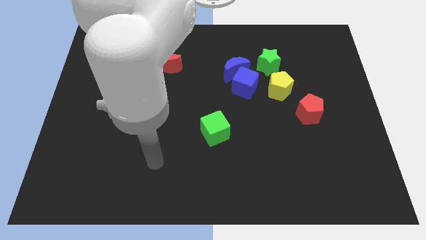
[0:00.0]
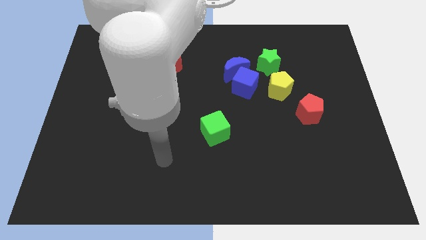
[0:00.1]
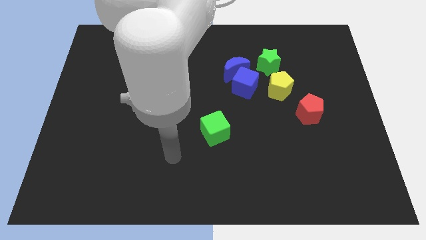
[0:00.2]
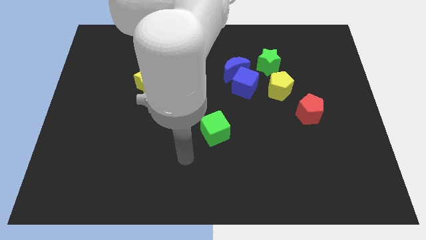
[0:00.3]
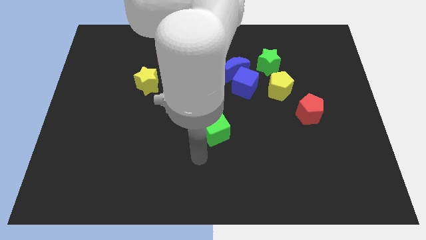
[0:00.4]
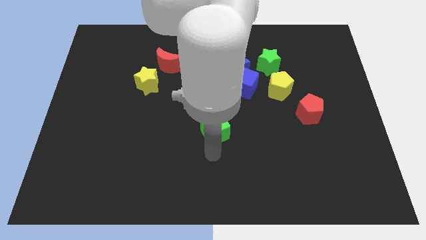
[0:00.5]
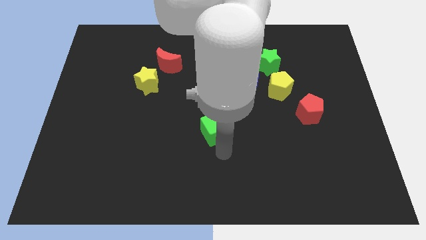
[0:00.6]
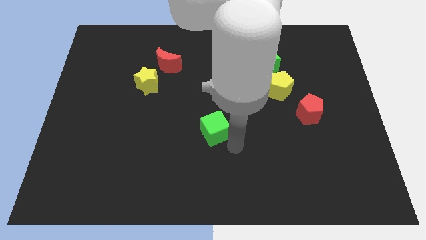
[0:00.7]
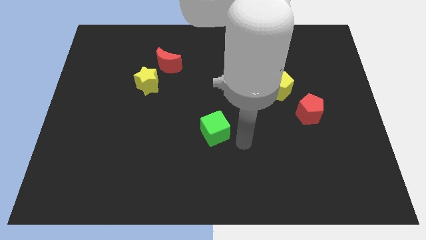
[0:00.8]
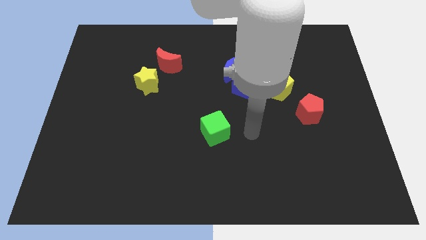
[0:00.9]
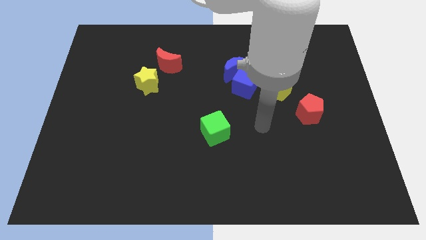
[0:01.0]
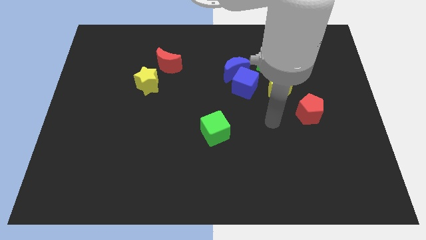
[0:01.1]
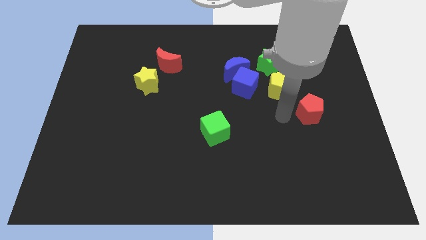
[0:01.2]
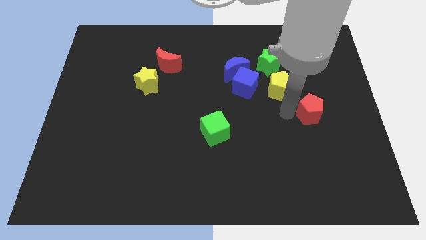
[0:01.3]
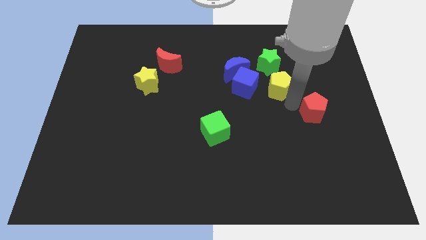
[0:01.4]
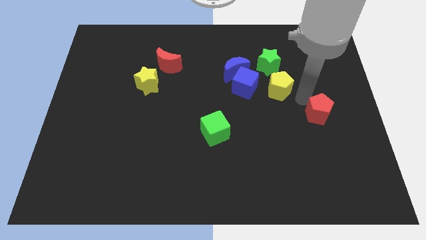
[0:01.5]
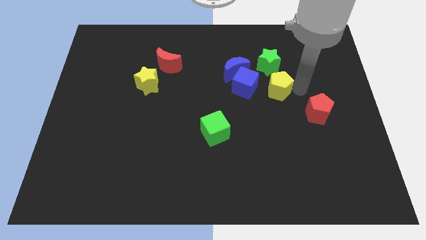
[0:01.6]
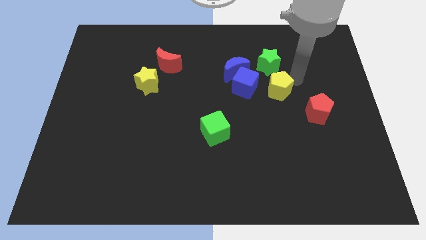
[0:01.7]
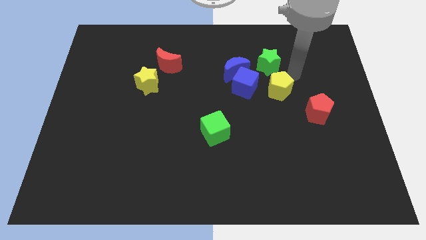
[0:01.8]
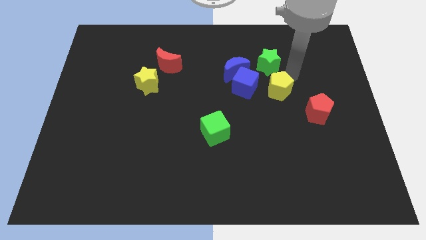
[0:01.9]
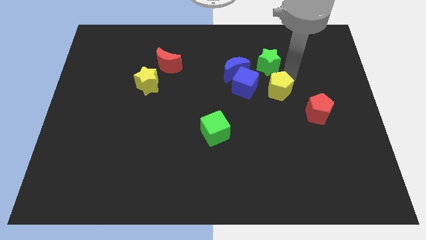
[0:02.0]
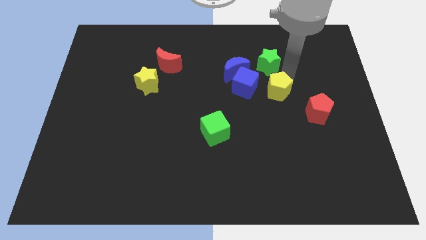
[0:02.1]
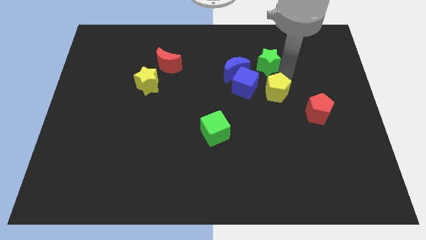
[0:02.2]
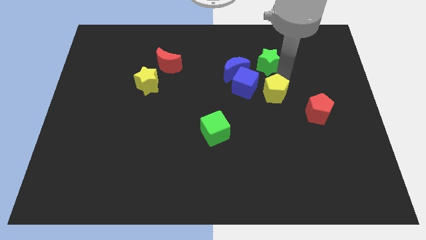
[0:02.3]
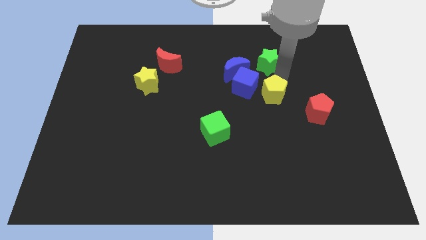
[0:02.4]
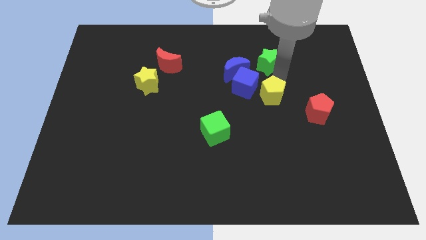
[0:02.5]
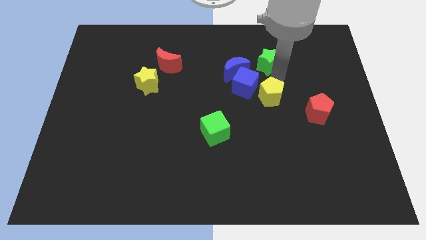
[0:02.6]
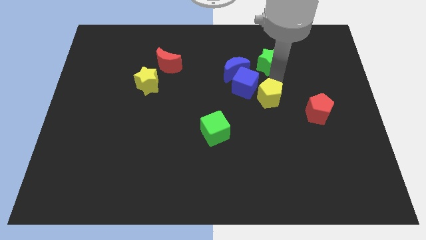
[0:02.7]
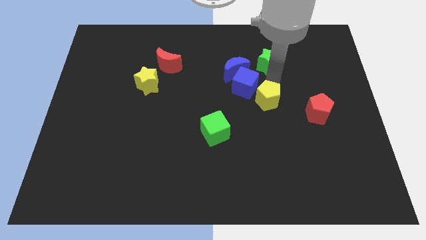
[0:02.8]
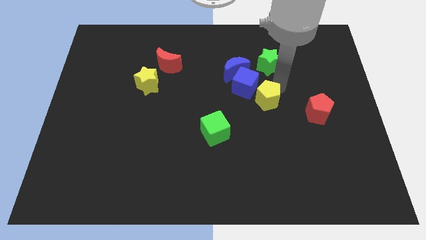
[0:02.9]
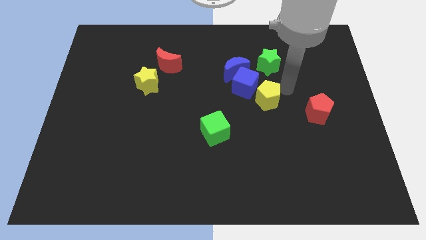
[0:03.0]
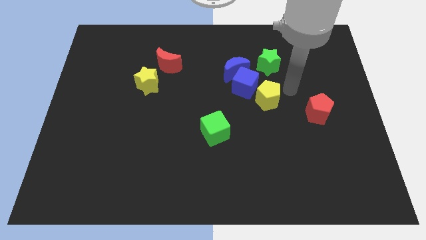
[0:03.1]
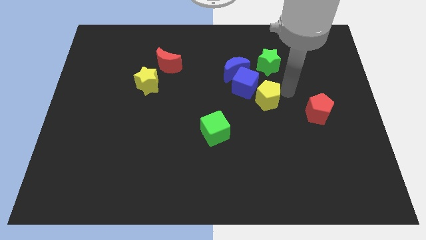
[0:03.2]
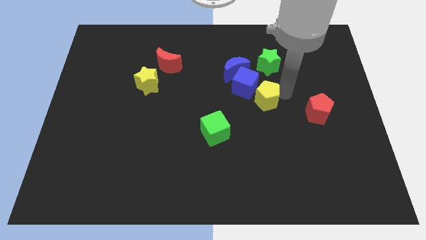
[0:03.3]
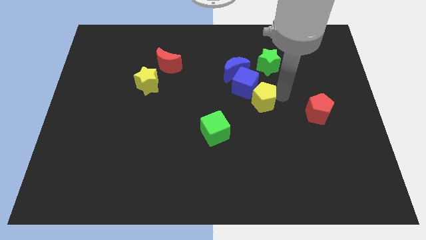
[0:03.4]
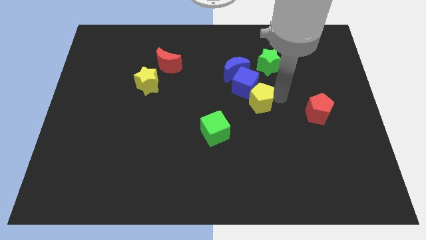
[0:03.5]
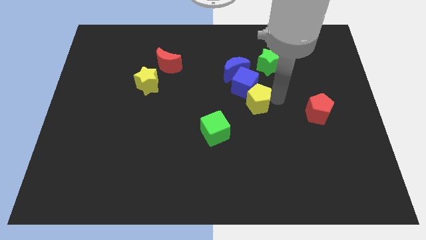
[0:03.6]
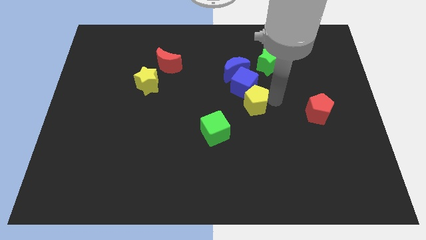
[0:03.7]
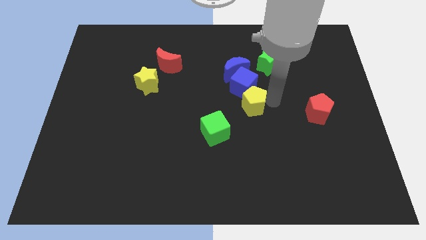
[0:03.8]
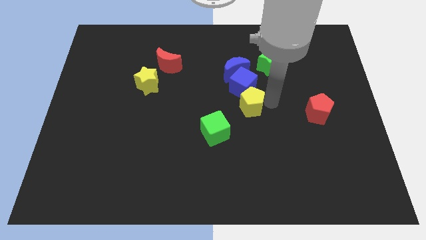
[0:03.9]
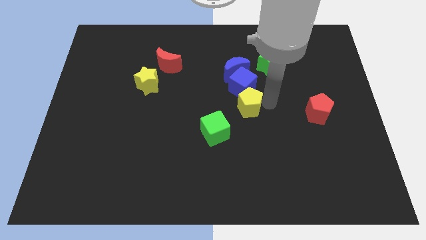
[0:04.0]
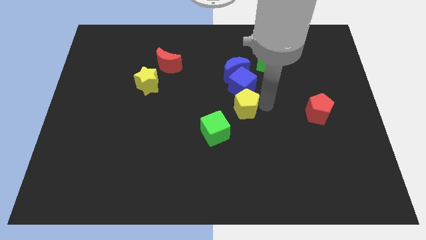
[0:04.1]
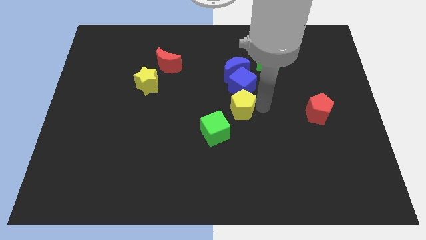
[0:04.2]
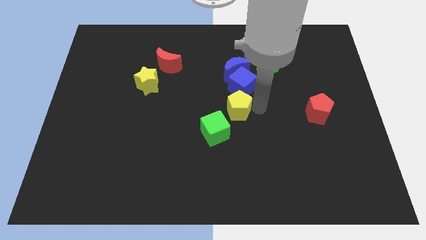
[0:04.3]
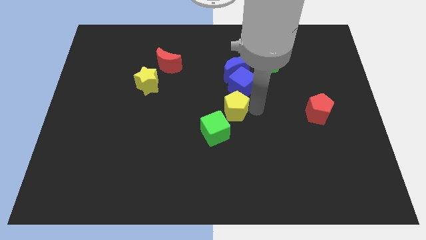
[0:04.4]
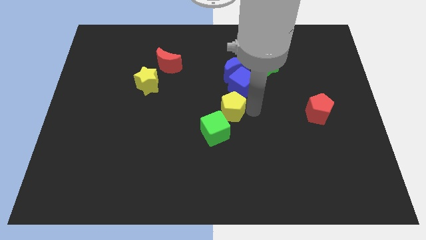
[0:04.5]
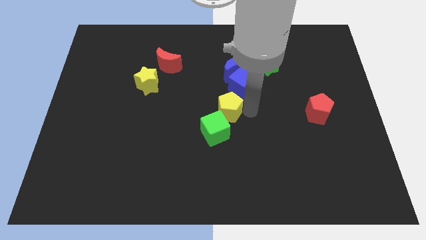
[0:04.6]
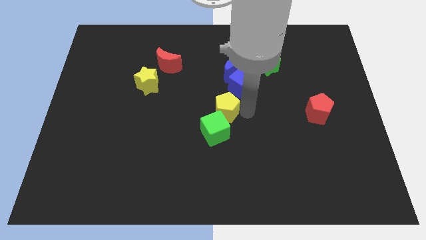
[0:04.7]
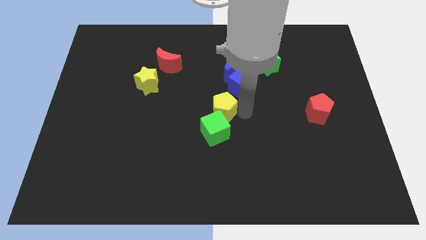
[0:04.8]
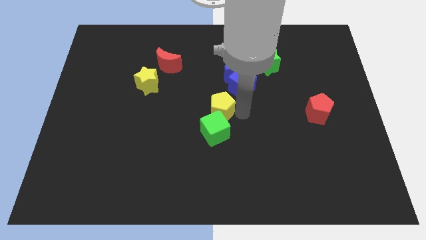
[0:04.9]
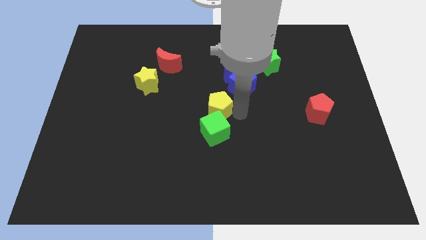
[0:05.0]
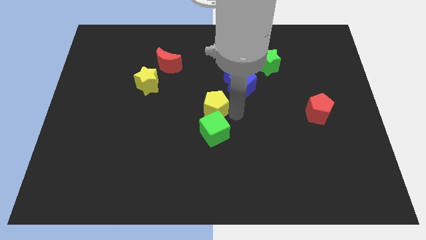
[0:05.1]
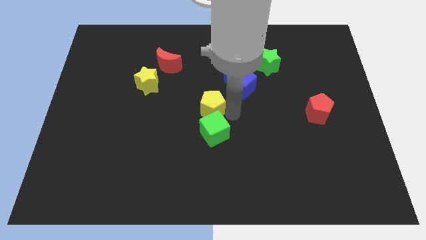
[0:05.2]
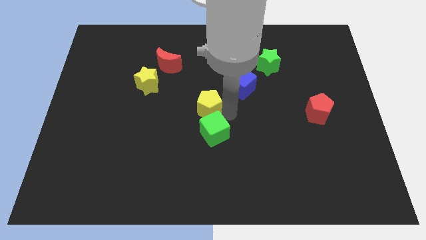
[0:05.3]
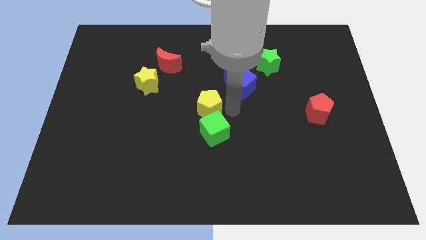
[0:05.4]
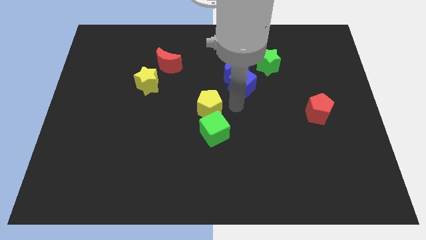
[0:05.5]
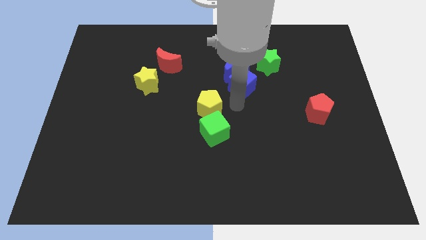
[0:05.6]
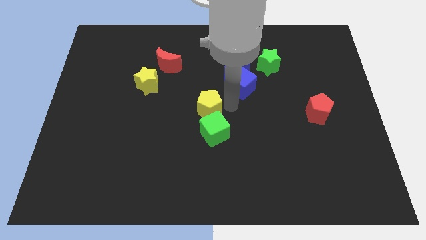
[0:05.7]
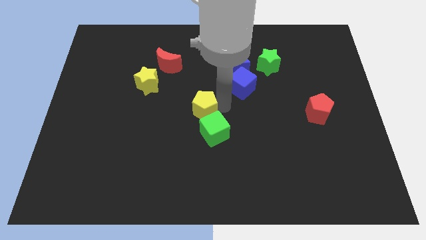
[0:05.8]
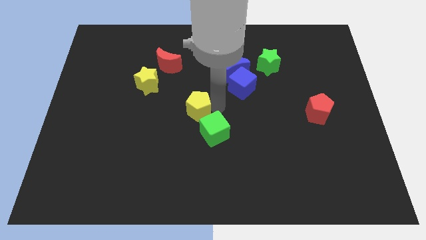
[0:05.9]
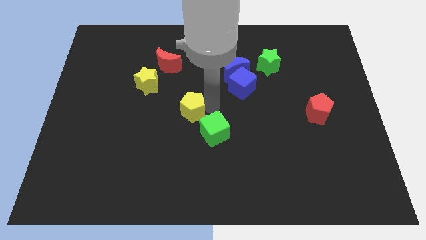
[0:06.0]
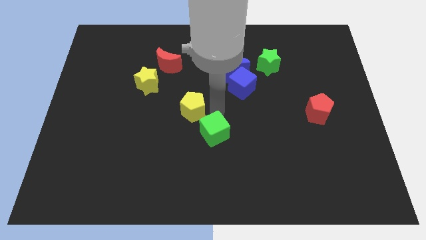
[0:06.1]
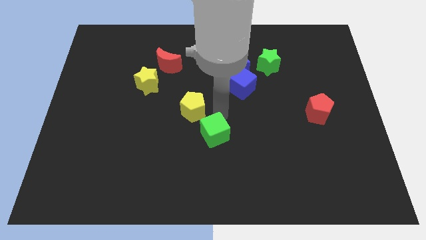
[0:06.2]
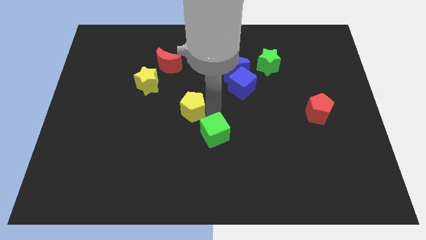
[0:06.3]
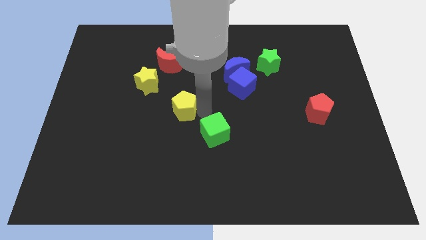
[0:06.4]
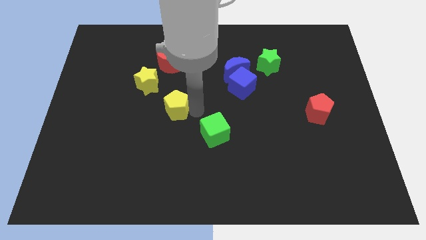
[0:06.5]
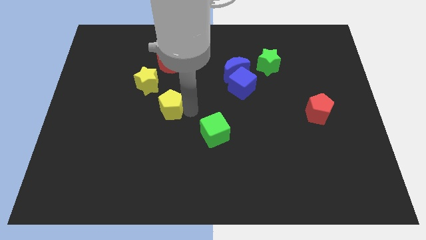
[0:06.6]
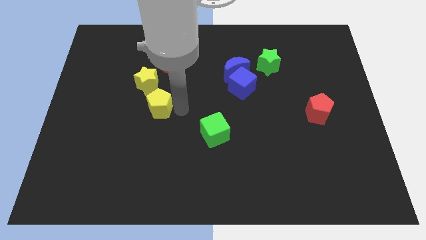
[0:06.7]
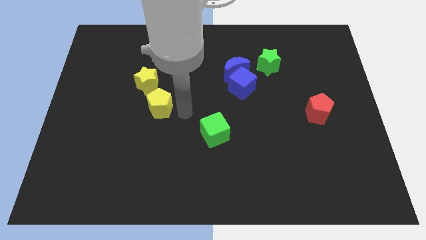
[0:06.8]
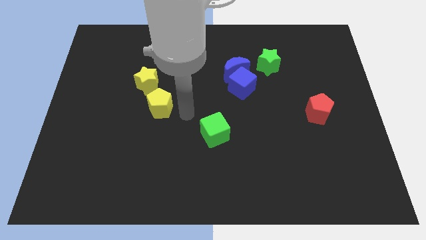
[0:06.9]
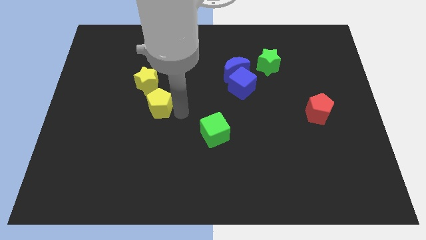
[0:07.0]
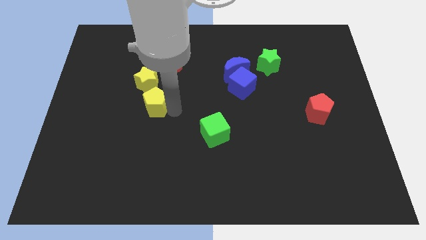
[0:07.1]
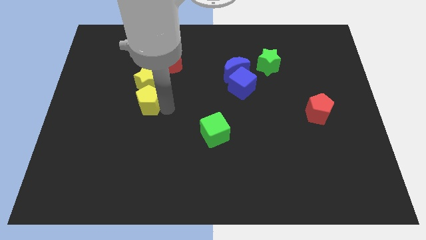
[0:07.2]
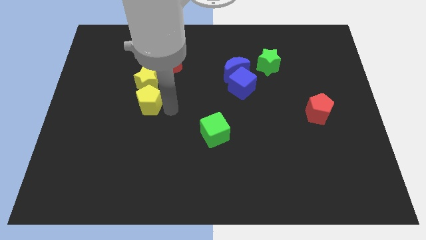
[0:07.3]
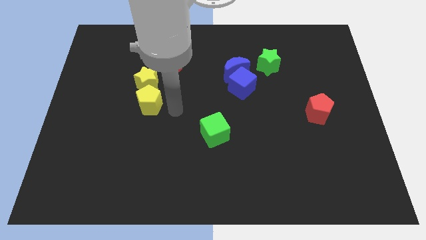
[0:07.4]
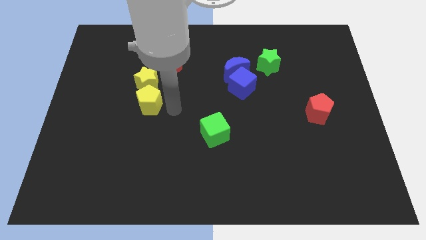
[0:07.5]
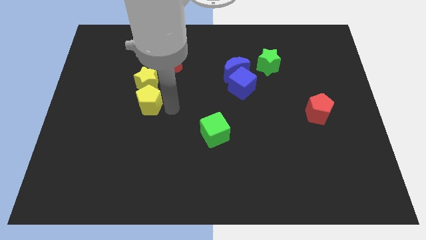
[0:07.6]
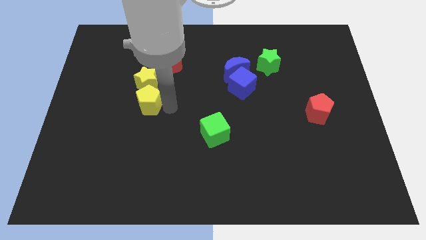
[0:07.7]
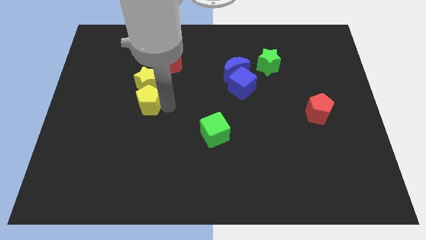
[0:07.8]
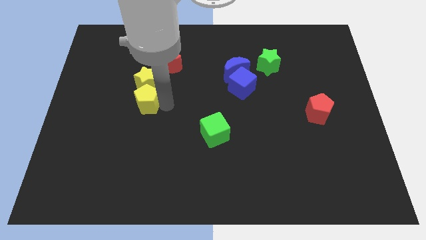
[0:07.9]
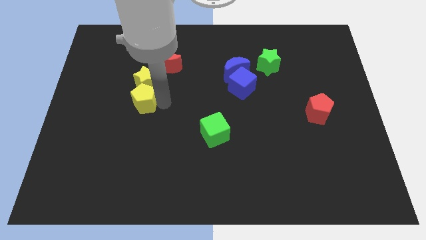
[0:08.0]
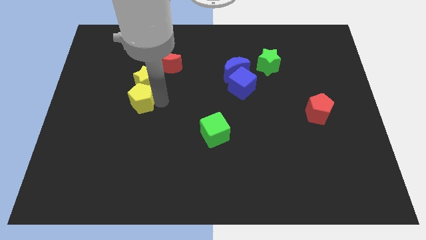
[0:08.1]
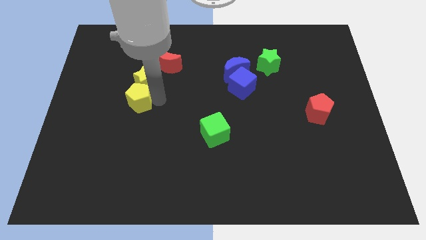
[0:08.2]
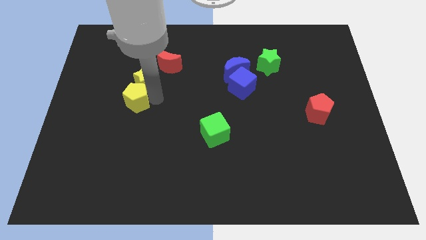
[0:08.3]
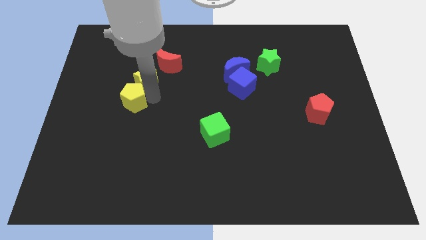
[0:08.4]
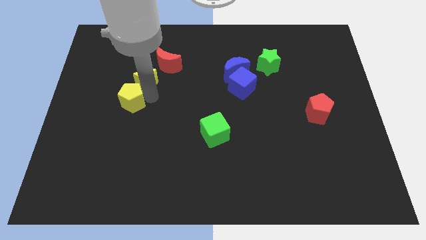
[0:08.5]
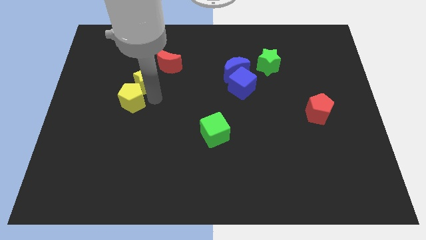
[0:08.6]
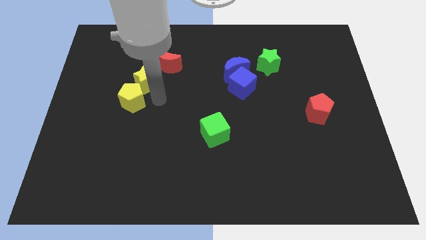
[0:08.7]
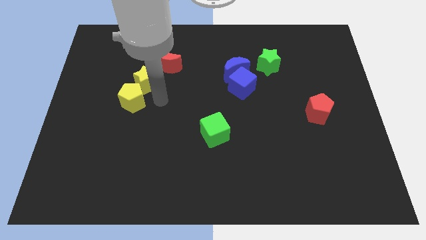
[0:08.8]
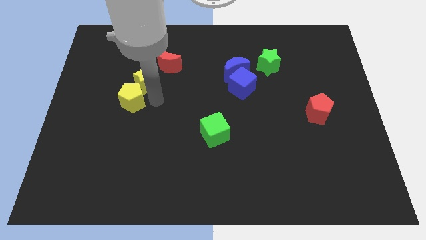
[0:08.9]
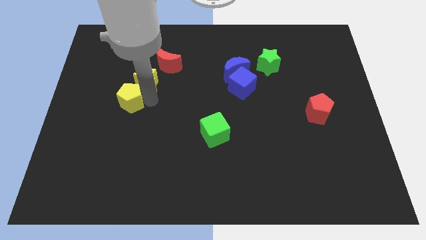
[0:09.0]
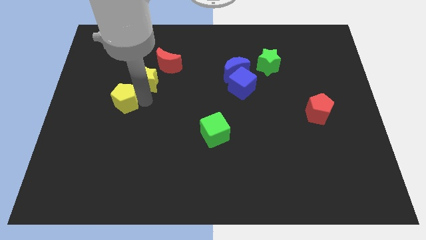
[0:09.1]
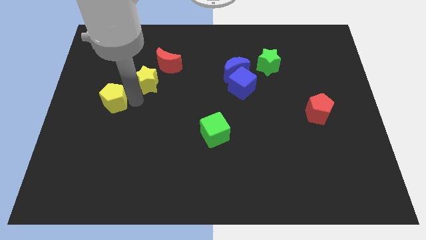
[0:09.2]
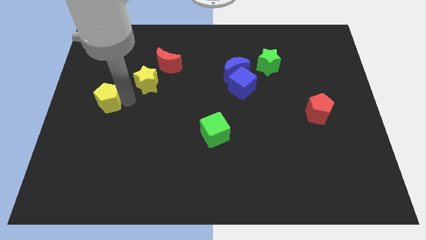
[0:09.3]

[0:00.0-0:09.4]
move the yellow pentagon to the left side
